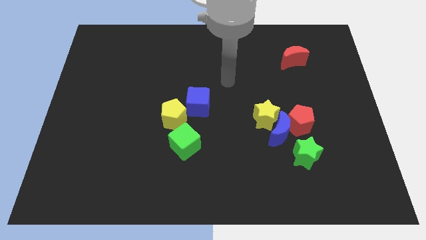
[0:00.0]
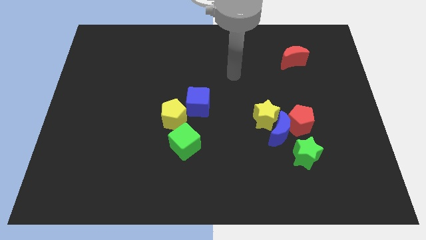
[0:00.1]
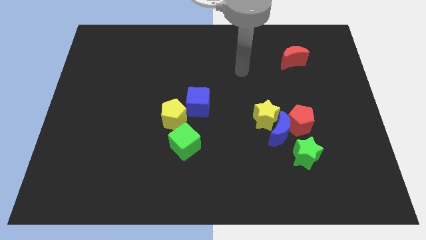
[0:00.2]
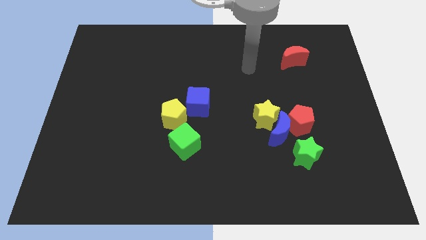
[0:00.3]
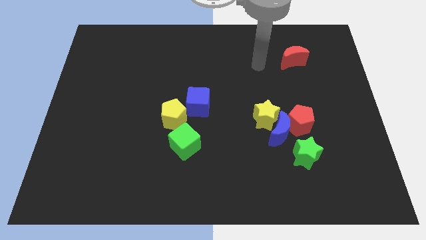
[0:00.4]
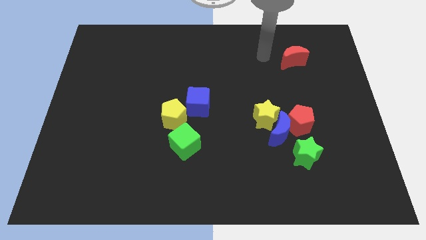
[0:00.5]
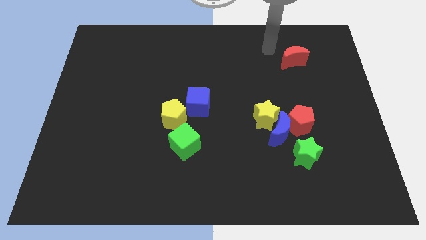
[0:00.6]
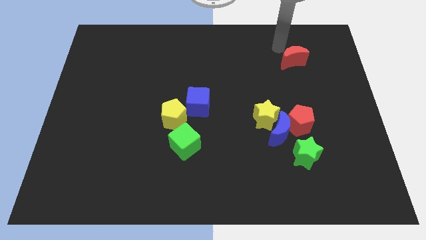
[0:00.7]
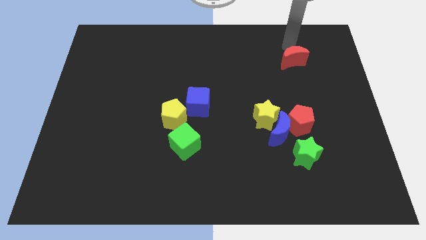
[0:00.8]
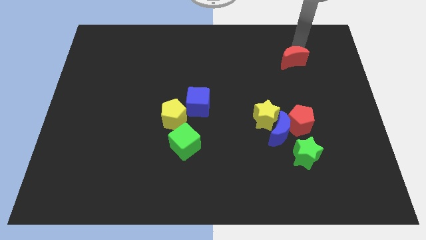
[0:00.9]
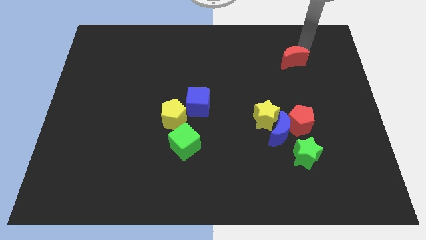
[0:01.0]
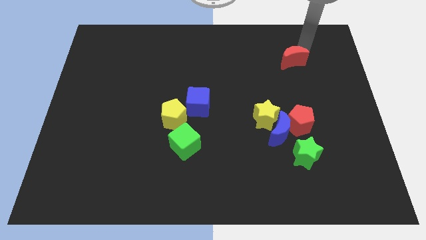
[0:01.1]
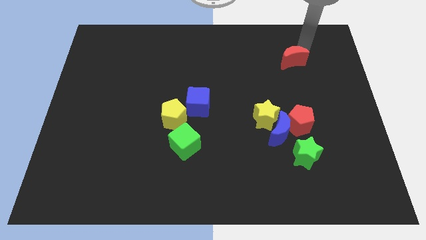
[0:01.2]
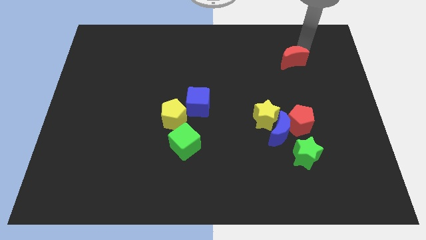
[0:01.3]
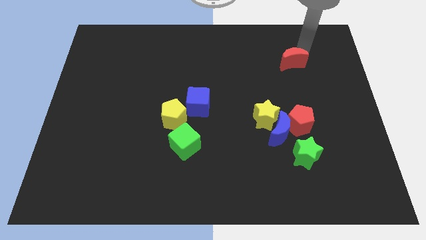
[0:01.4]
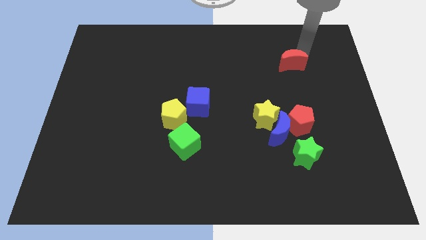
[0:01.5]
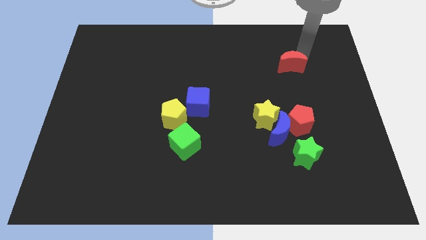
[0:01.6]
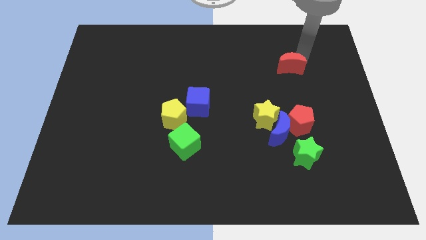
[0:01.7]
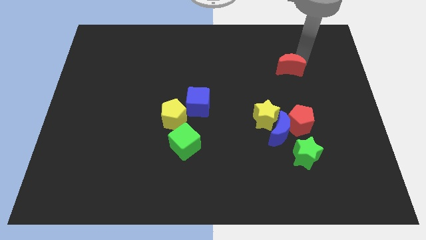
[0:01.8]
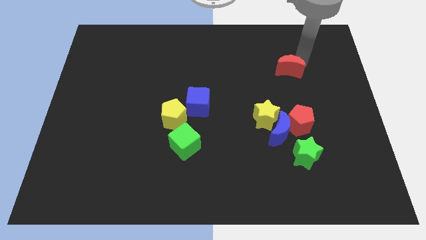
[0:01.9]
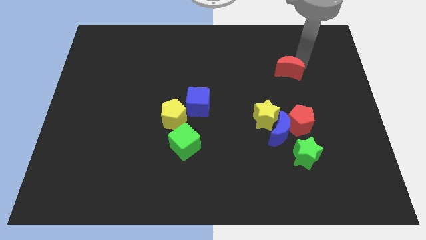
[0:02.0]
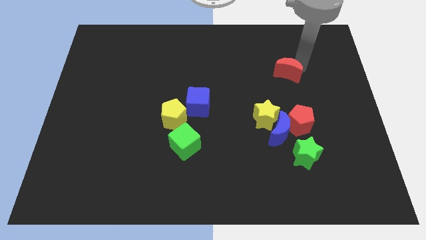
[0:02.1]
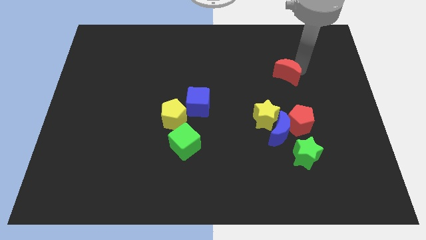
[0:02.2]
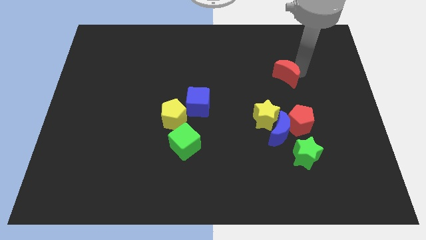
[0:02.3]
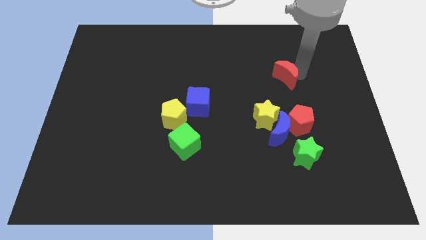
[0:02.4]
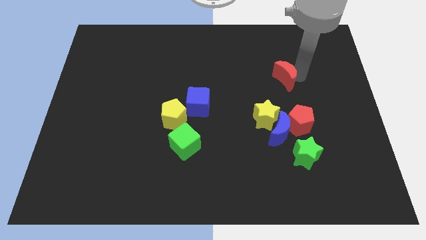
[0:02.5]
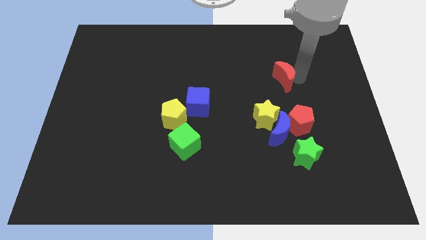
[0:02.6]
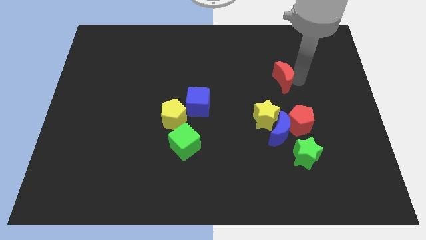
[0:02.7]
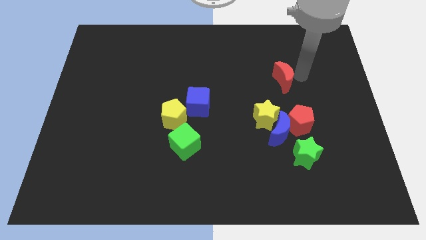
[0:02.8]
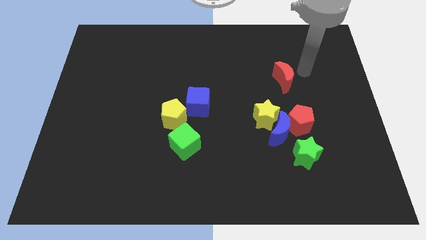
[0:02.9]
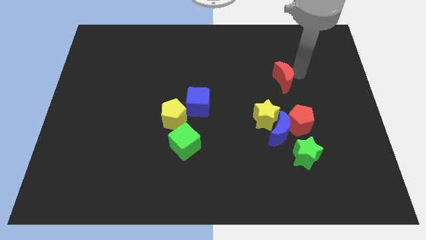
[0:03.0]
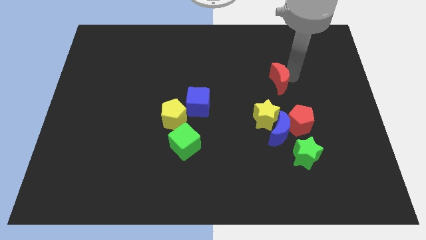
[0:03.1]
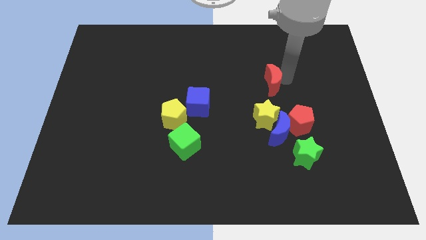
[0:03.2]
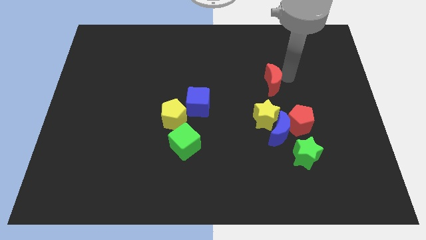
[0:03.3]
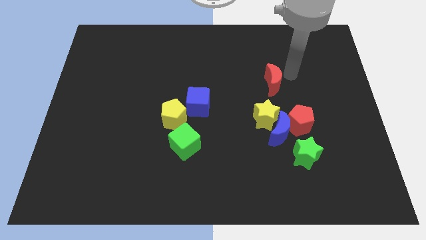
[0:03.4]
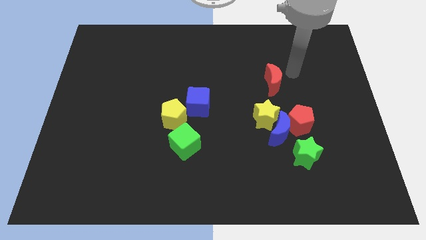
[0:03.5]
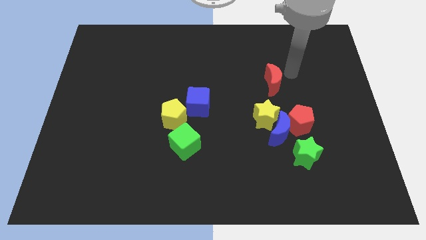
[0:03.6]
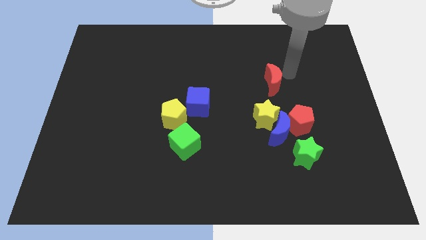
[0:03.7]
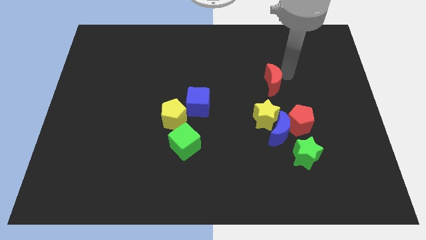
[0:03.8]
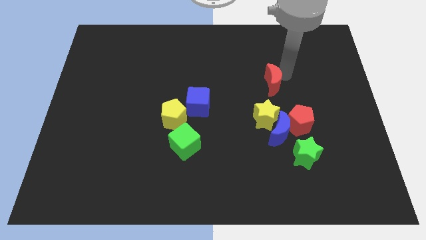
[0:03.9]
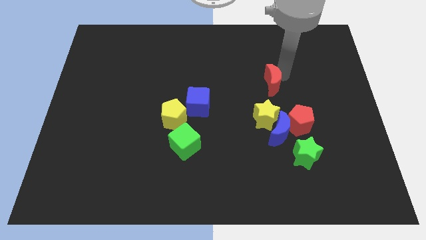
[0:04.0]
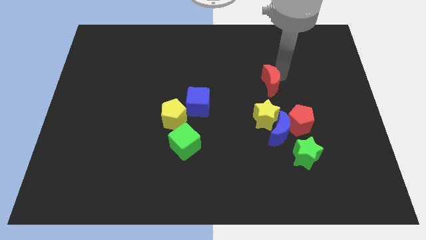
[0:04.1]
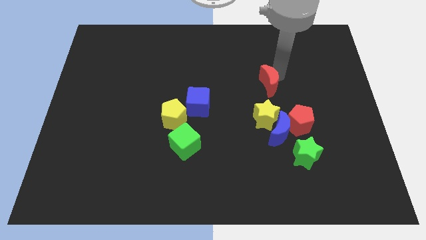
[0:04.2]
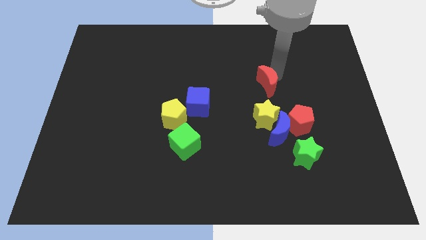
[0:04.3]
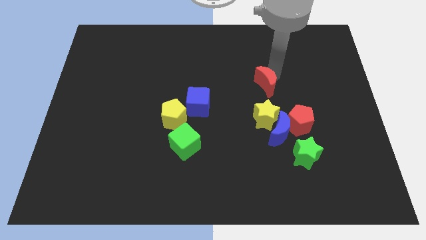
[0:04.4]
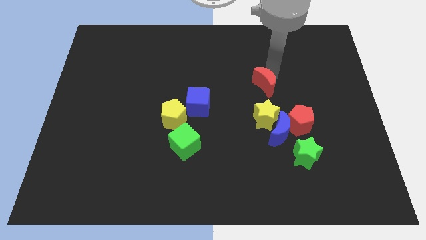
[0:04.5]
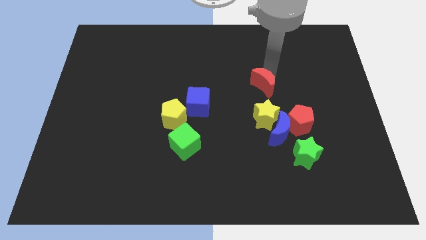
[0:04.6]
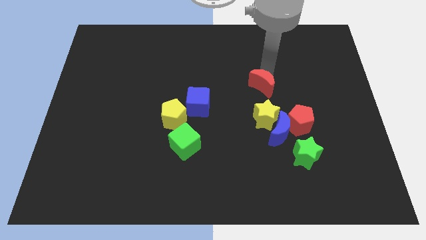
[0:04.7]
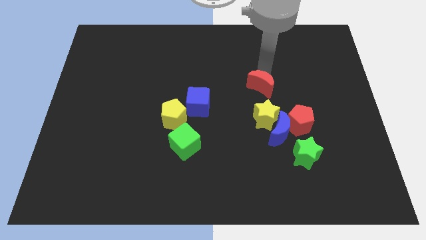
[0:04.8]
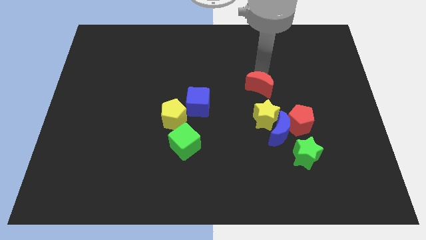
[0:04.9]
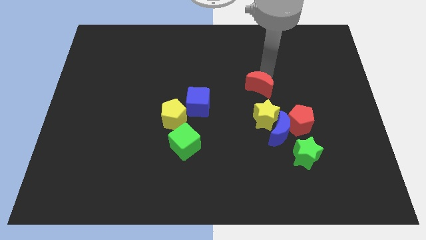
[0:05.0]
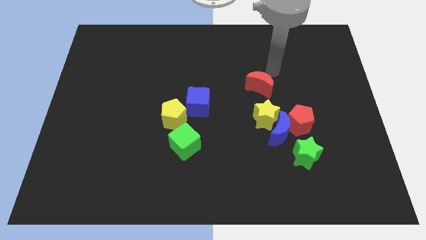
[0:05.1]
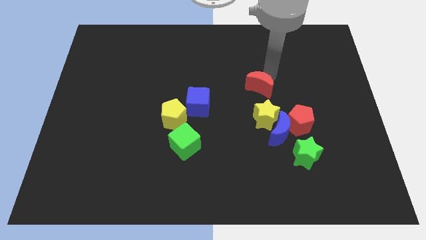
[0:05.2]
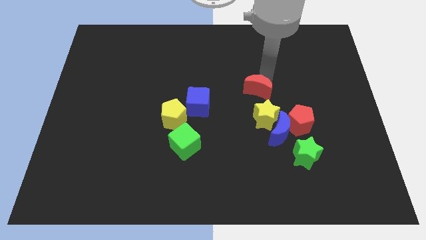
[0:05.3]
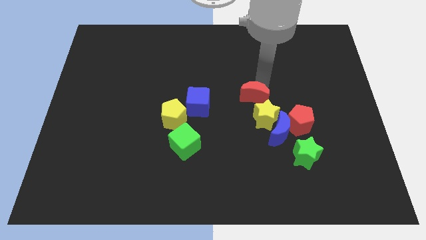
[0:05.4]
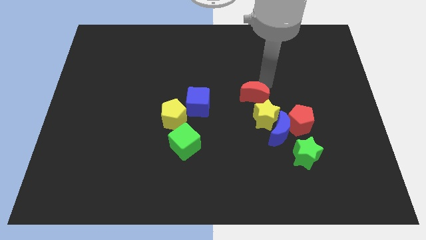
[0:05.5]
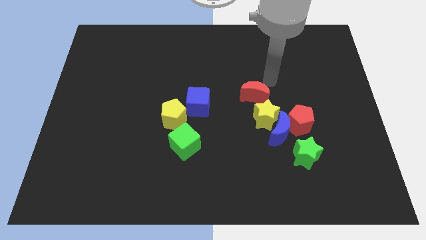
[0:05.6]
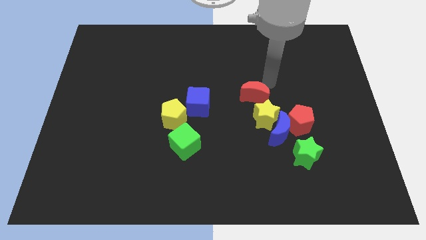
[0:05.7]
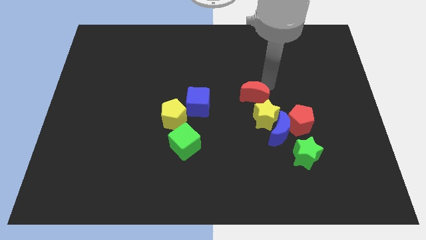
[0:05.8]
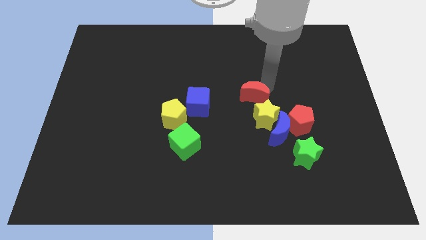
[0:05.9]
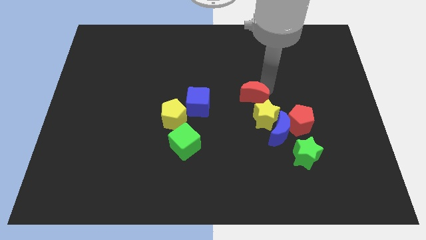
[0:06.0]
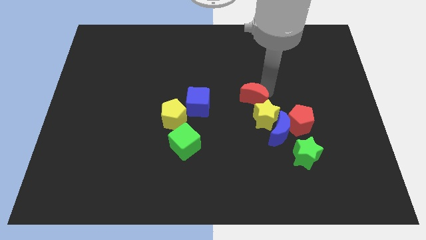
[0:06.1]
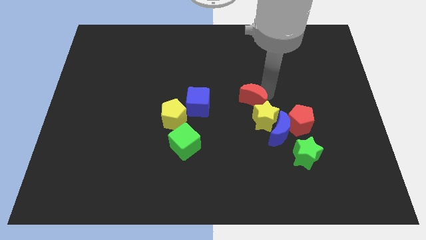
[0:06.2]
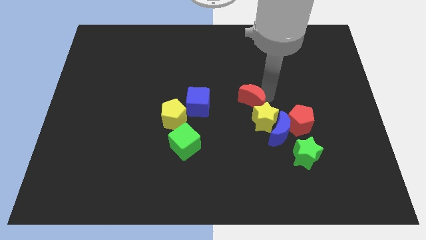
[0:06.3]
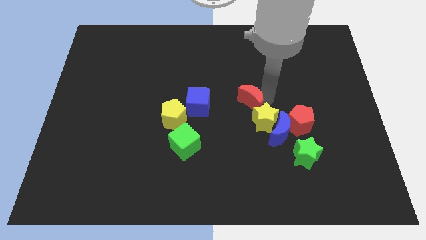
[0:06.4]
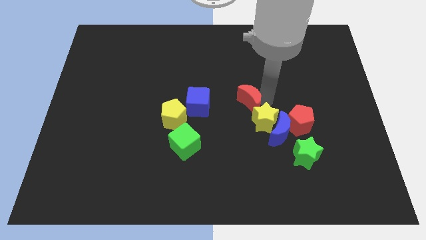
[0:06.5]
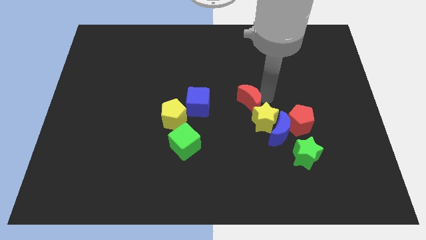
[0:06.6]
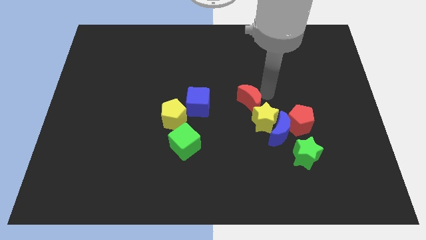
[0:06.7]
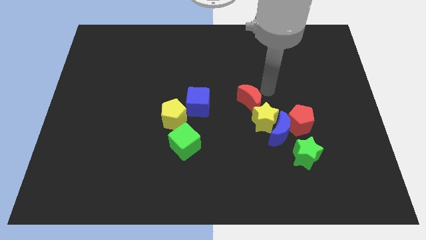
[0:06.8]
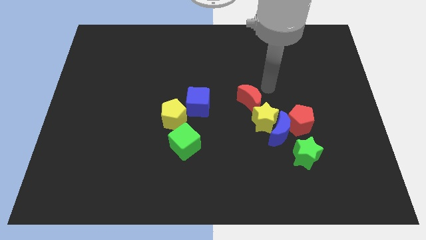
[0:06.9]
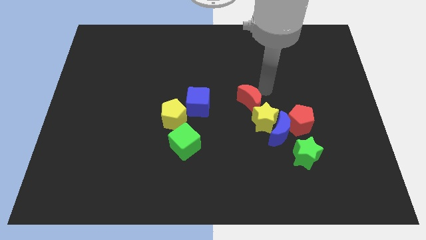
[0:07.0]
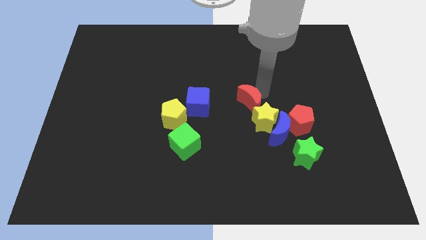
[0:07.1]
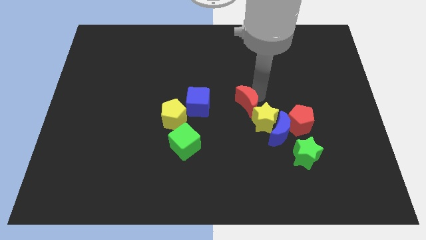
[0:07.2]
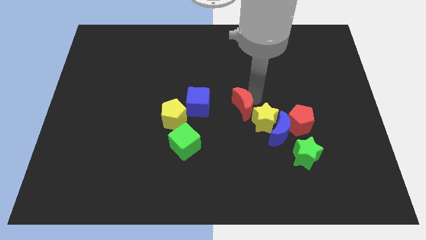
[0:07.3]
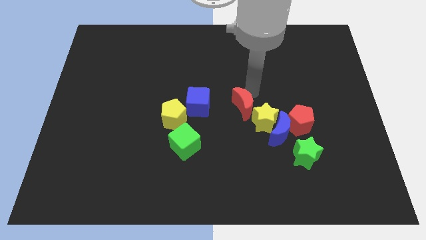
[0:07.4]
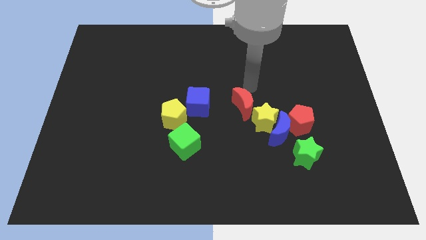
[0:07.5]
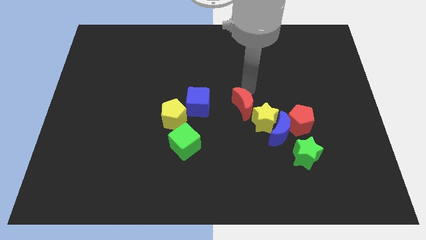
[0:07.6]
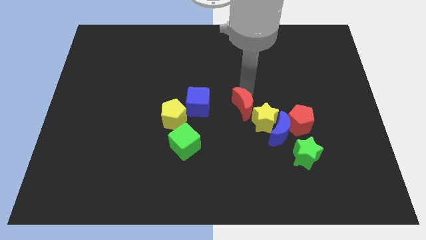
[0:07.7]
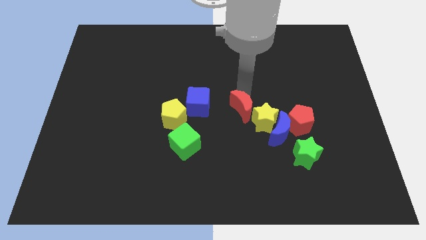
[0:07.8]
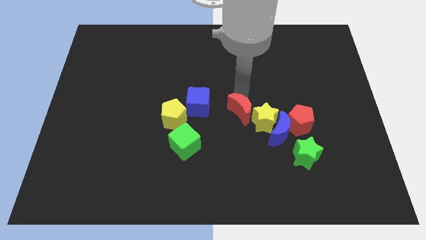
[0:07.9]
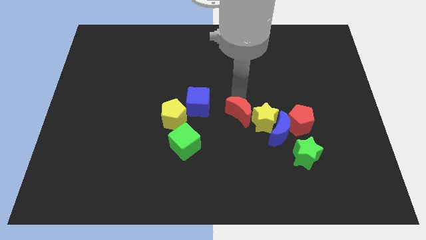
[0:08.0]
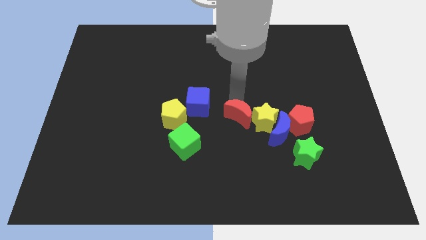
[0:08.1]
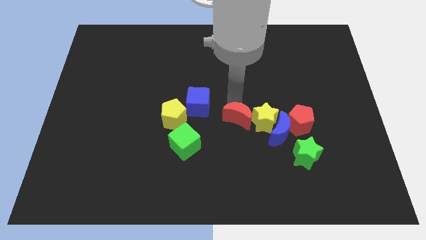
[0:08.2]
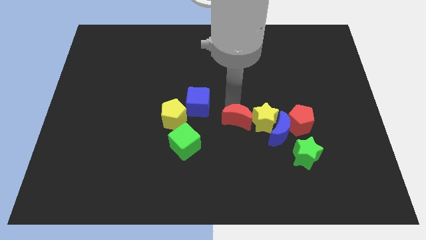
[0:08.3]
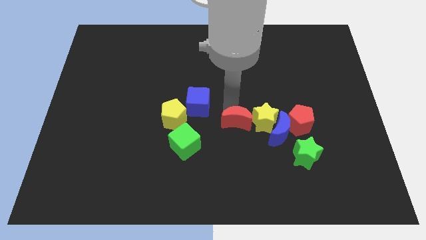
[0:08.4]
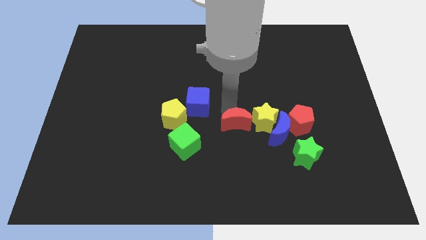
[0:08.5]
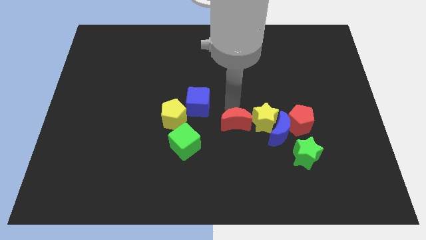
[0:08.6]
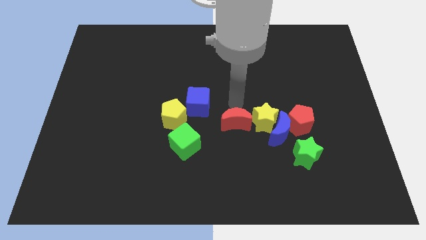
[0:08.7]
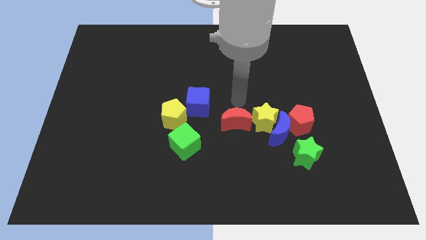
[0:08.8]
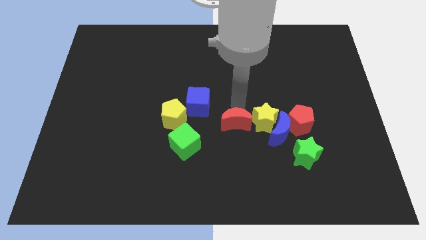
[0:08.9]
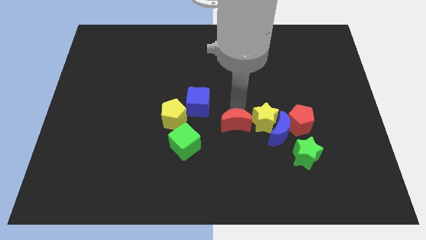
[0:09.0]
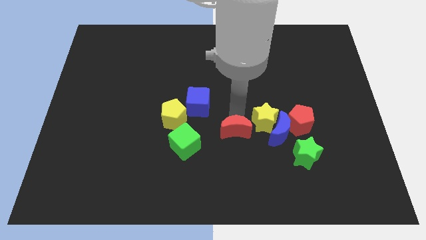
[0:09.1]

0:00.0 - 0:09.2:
move the red moon to the right of the green cube
